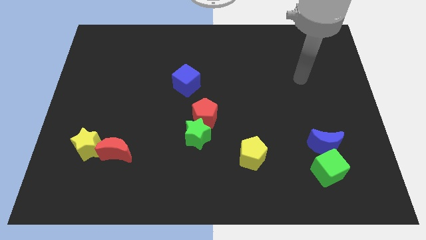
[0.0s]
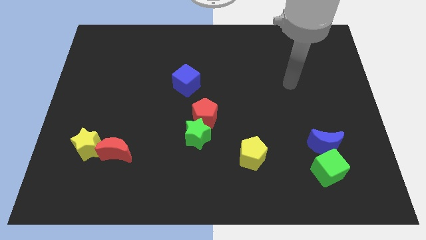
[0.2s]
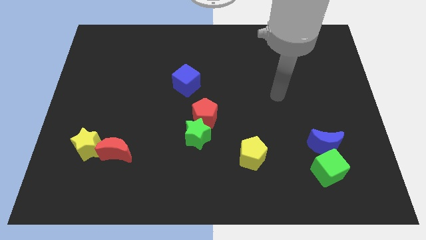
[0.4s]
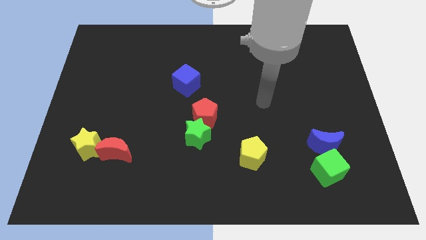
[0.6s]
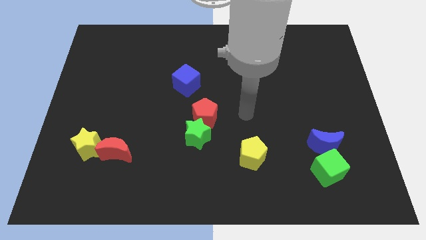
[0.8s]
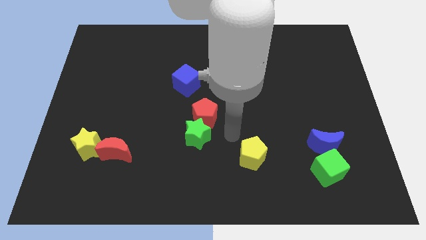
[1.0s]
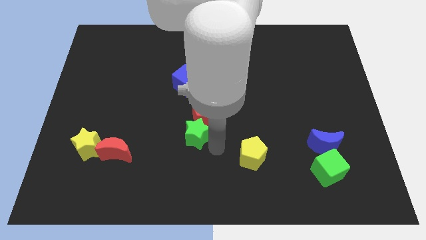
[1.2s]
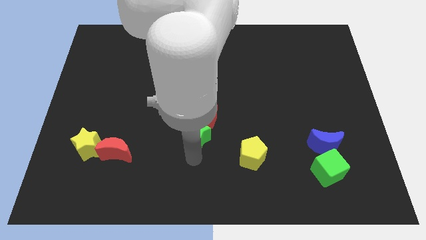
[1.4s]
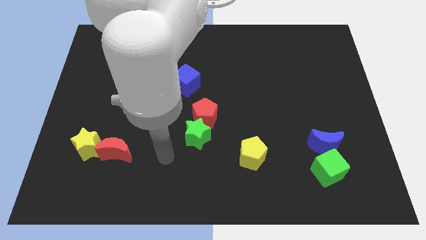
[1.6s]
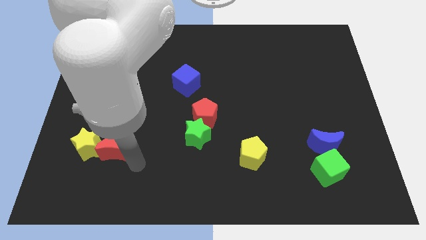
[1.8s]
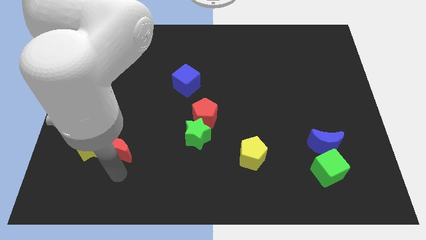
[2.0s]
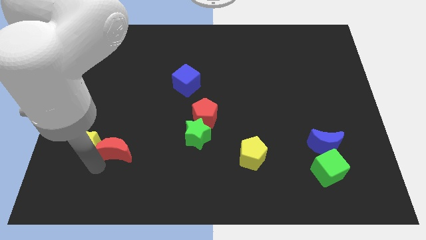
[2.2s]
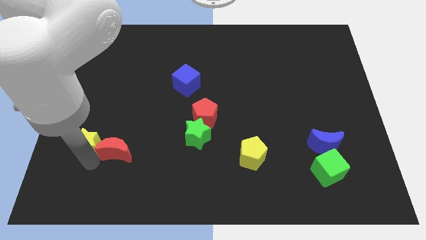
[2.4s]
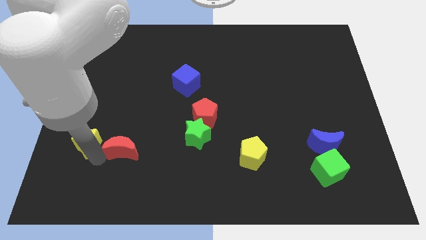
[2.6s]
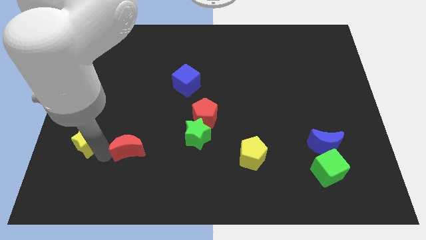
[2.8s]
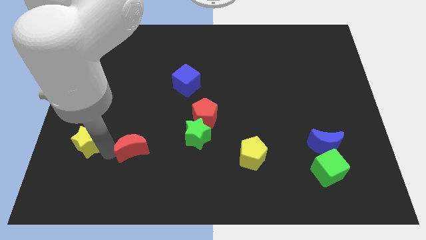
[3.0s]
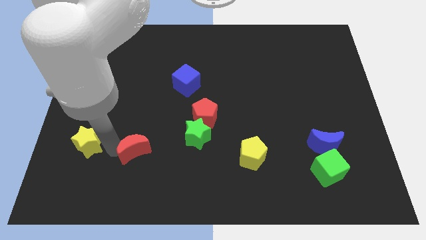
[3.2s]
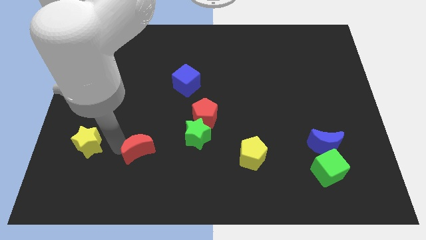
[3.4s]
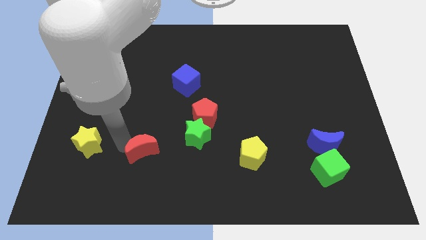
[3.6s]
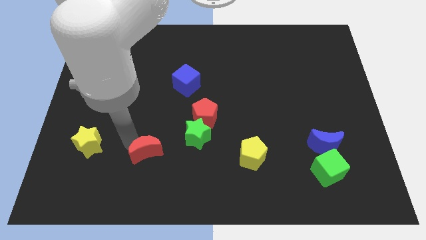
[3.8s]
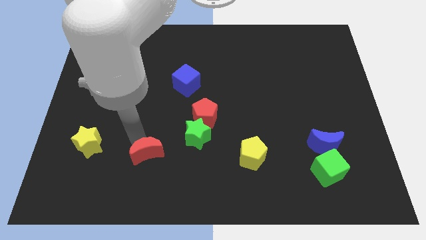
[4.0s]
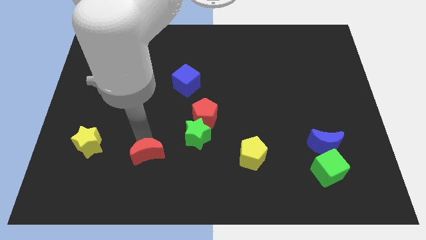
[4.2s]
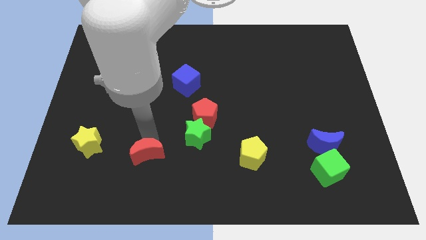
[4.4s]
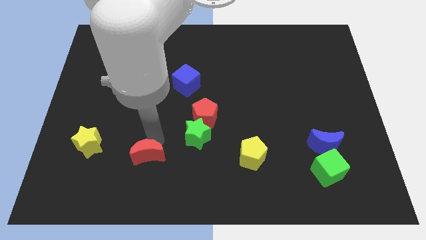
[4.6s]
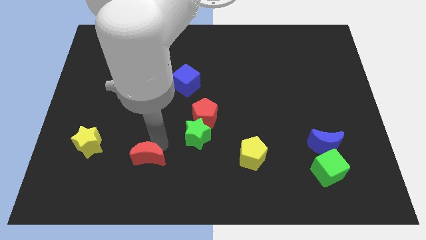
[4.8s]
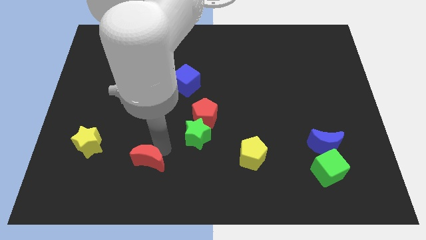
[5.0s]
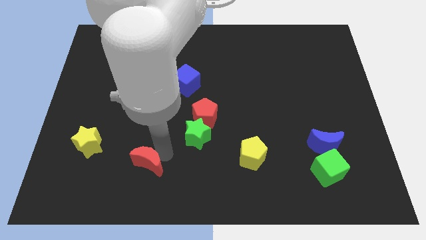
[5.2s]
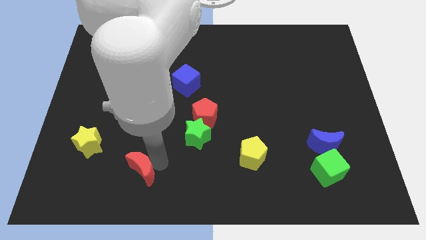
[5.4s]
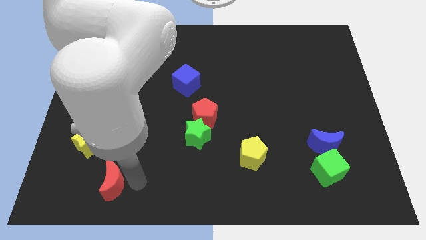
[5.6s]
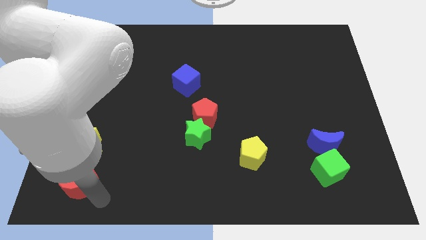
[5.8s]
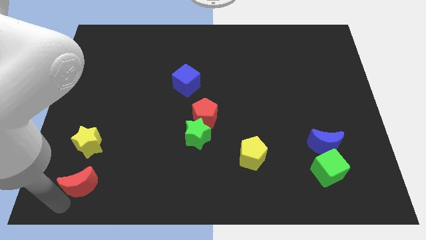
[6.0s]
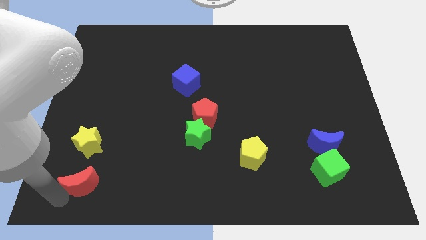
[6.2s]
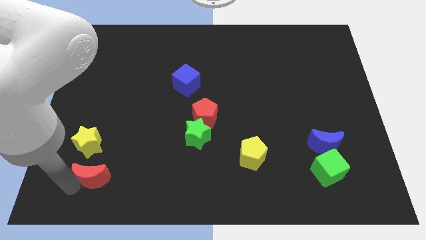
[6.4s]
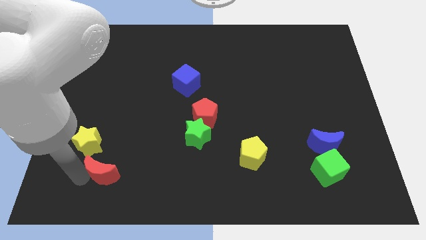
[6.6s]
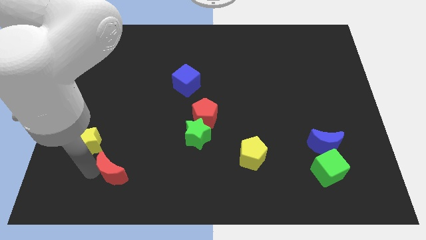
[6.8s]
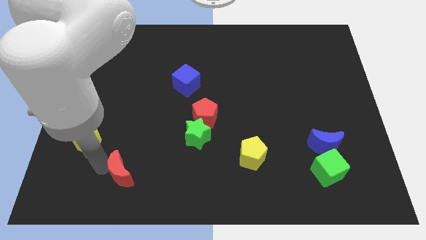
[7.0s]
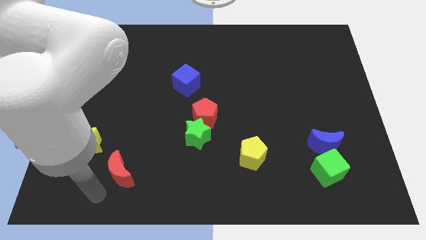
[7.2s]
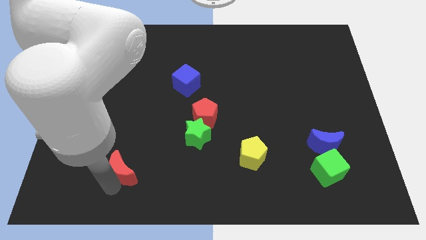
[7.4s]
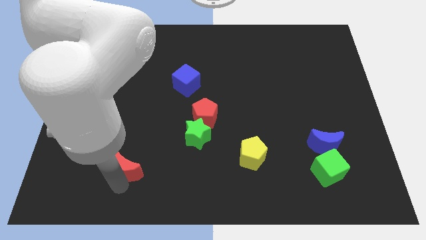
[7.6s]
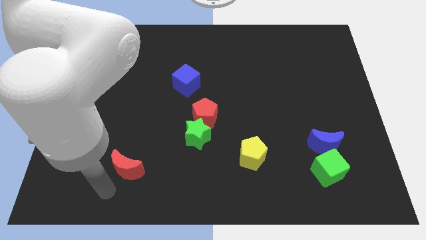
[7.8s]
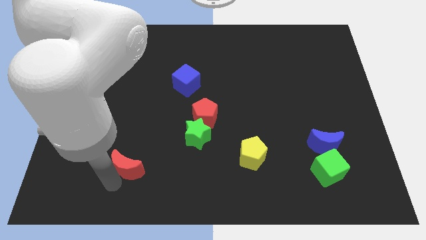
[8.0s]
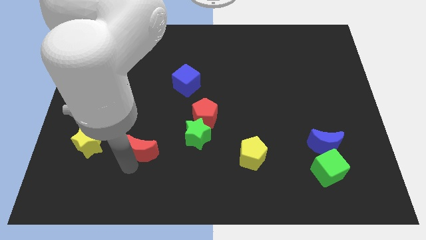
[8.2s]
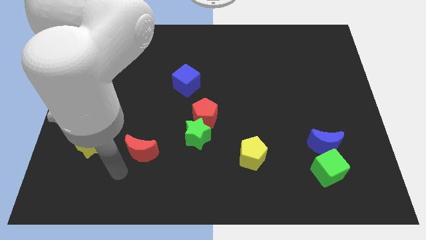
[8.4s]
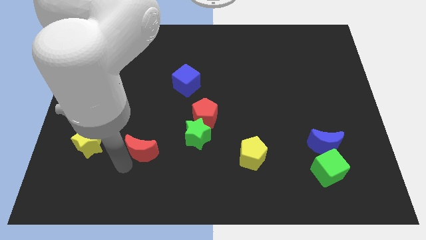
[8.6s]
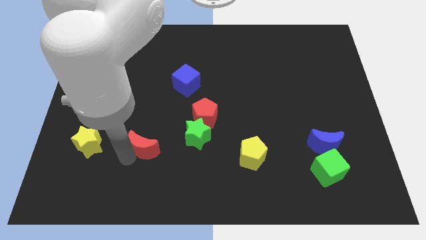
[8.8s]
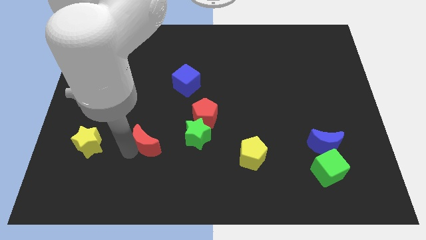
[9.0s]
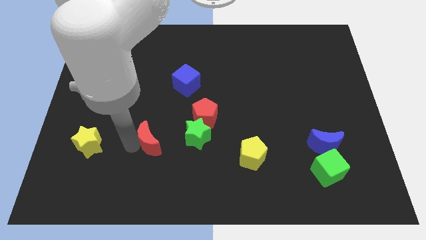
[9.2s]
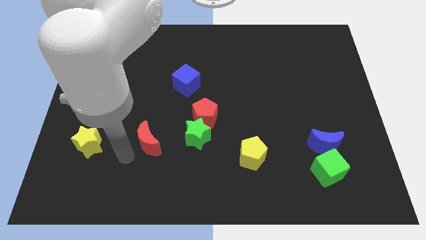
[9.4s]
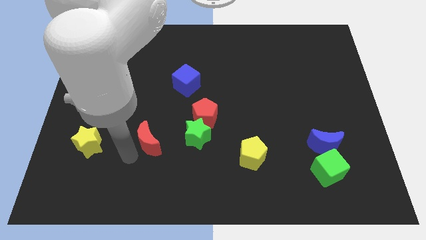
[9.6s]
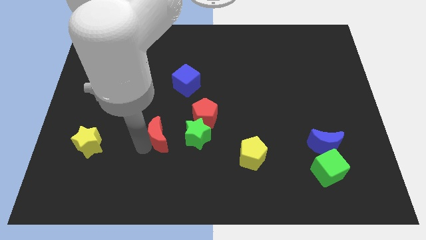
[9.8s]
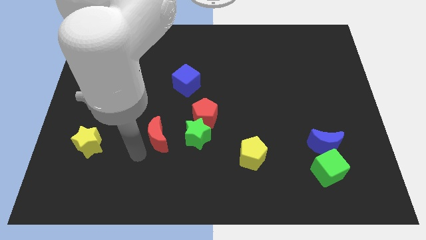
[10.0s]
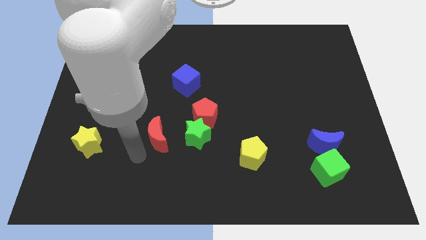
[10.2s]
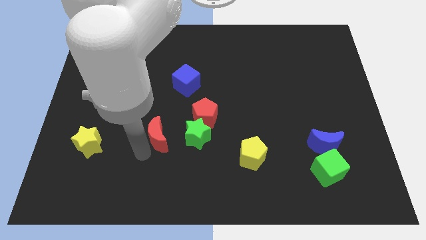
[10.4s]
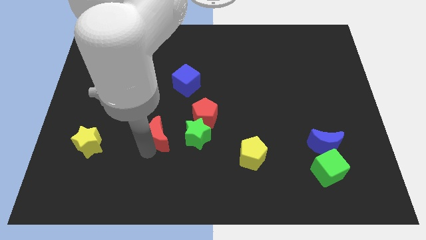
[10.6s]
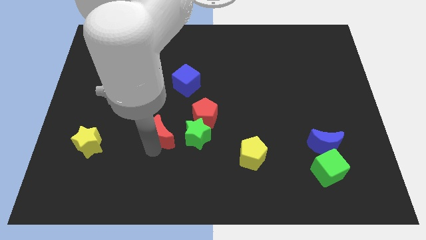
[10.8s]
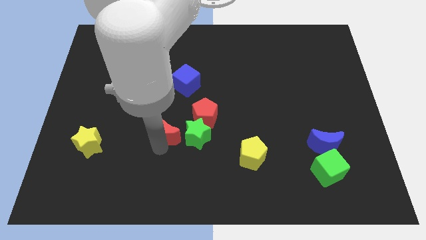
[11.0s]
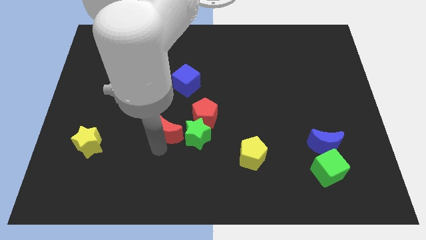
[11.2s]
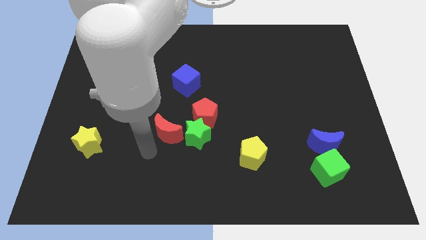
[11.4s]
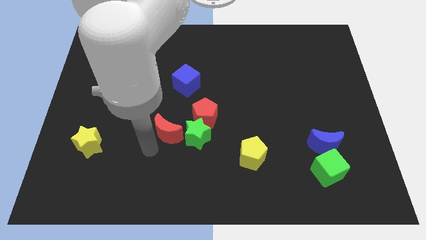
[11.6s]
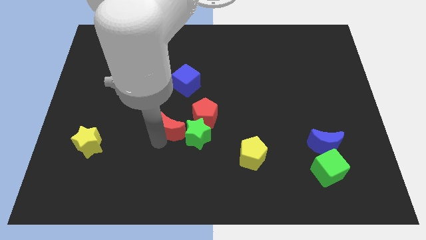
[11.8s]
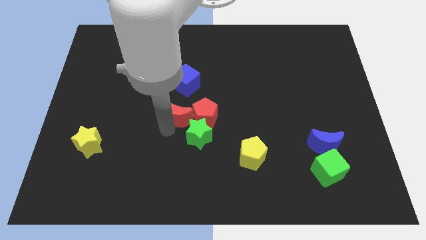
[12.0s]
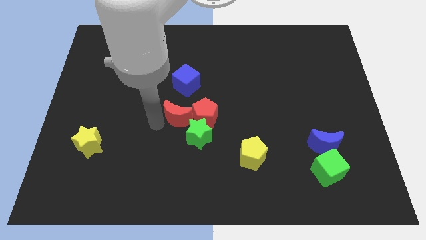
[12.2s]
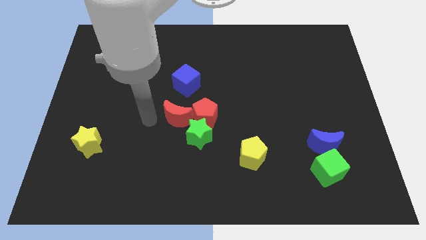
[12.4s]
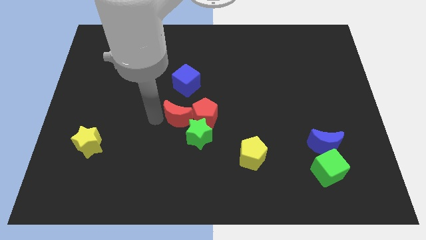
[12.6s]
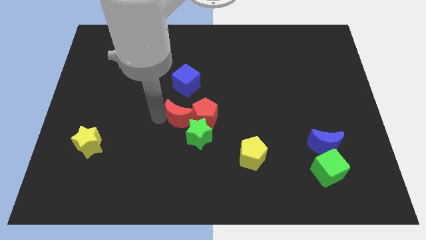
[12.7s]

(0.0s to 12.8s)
put the red moon towards the red pentagon

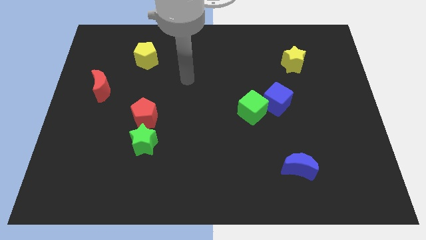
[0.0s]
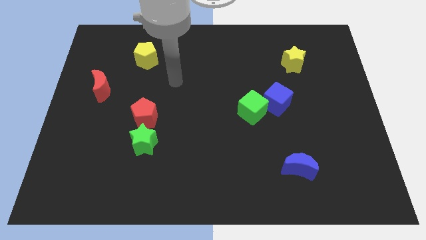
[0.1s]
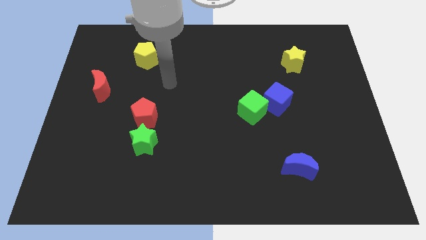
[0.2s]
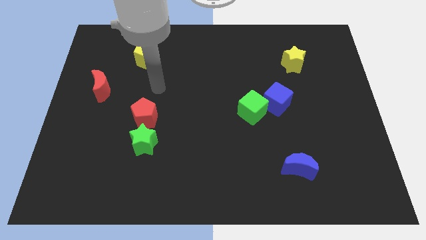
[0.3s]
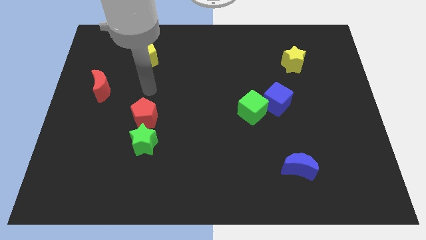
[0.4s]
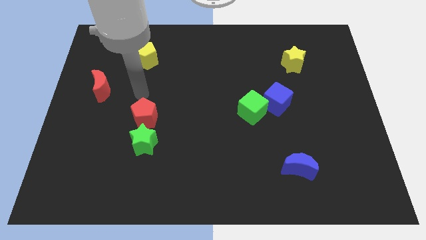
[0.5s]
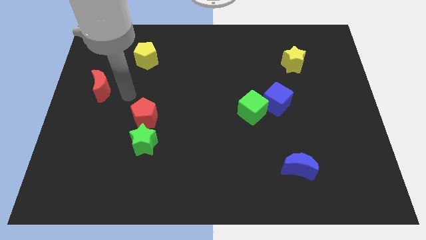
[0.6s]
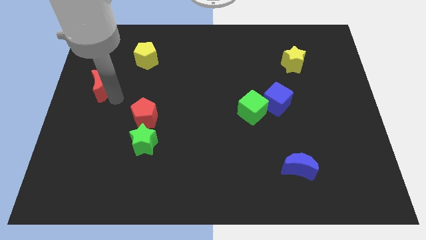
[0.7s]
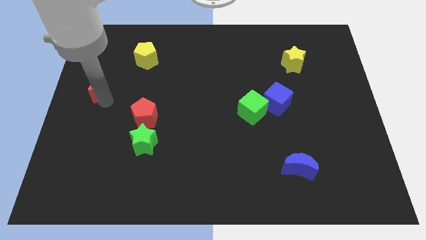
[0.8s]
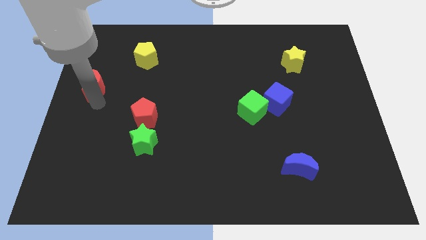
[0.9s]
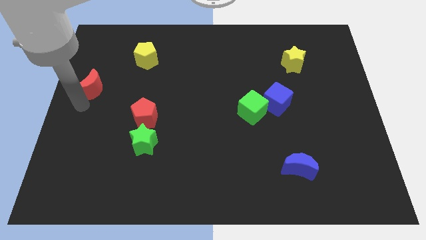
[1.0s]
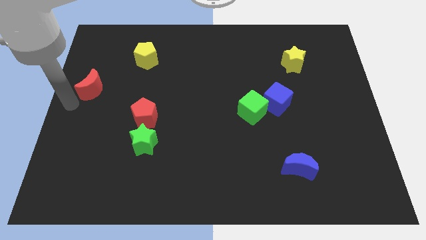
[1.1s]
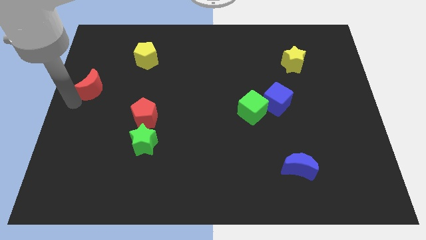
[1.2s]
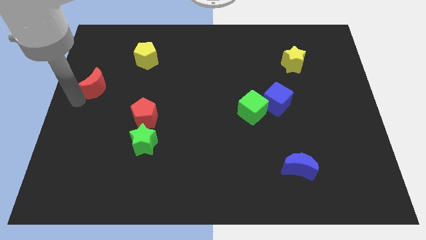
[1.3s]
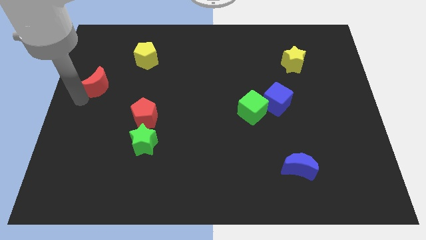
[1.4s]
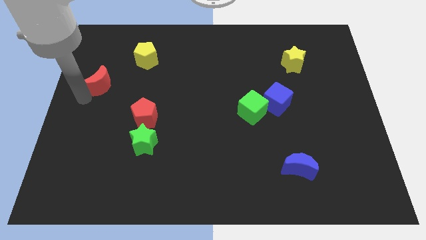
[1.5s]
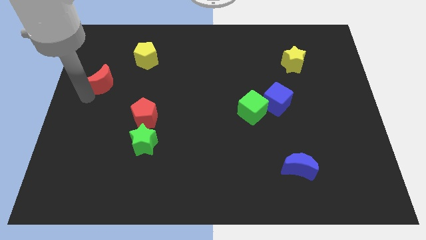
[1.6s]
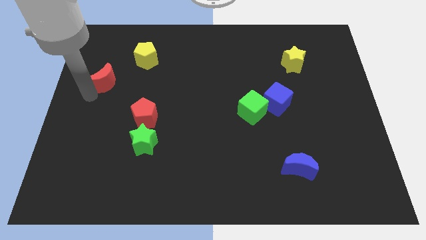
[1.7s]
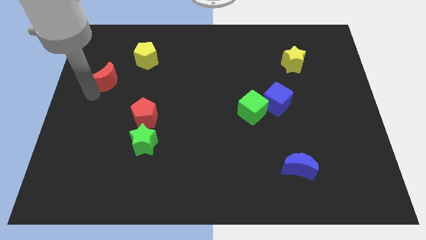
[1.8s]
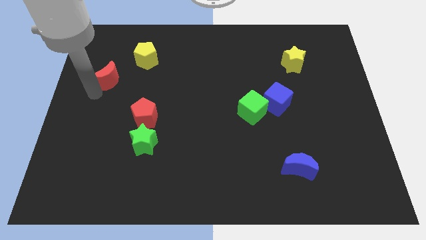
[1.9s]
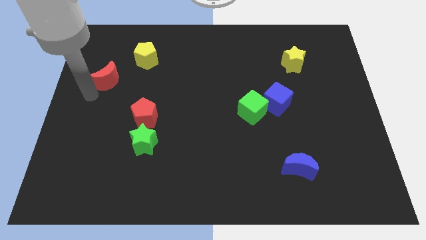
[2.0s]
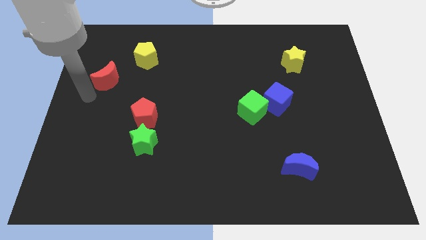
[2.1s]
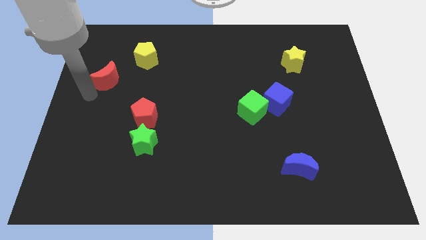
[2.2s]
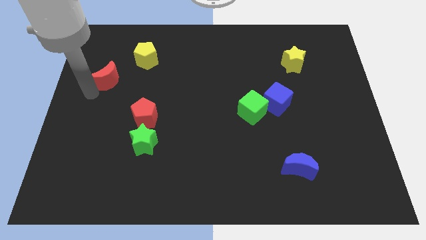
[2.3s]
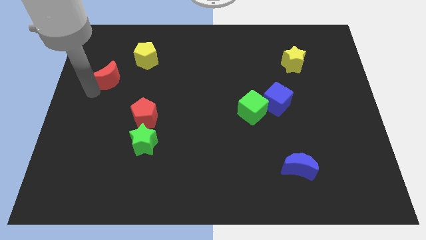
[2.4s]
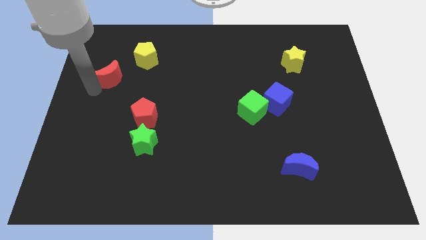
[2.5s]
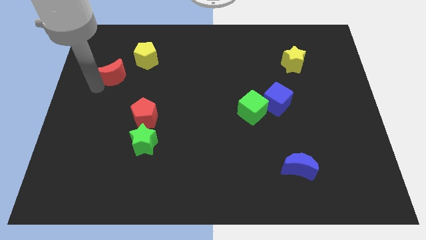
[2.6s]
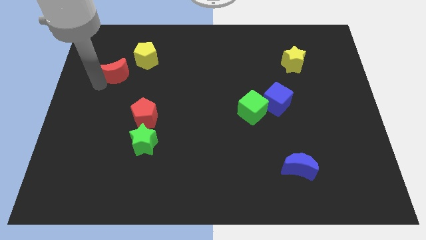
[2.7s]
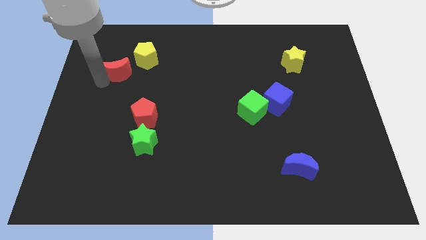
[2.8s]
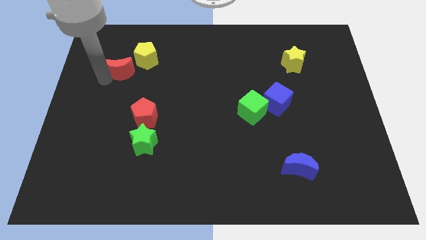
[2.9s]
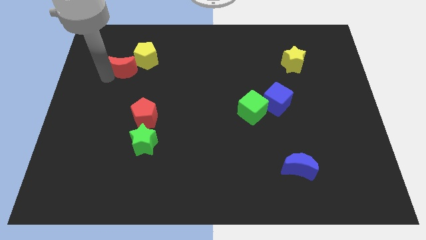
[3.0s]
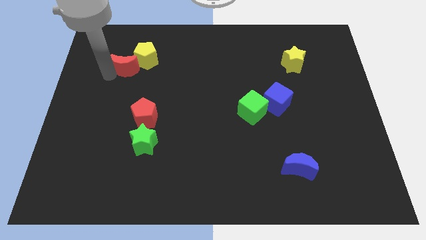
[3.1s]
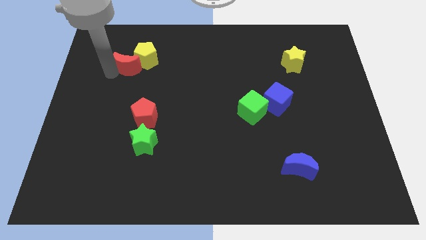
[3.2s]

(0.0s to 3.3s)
slide the red moon towards the yellow pentagon
